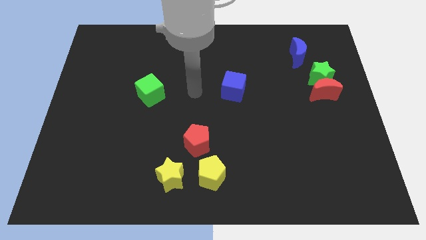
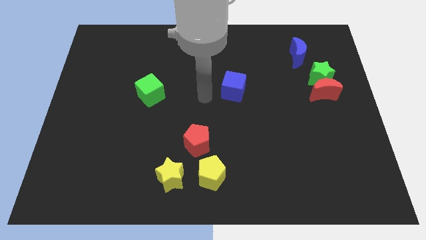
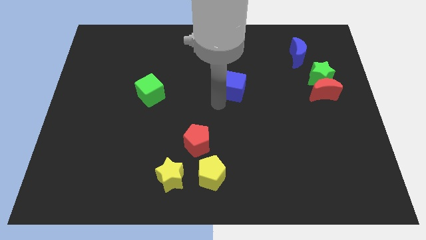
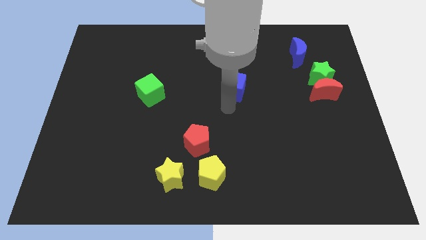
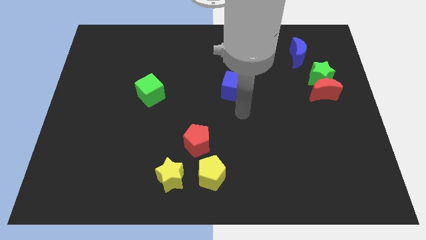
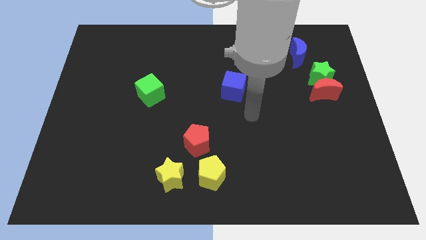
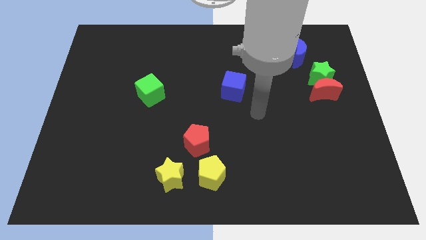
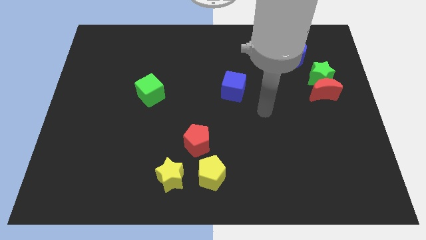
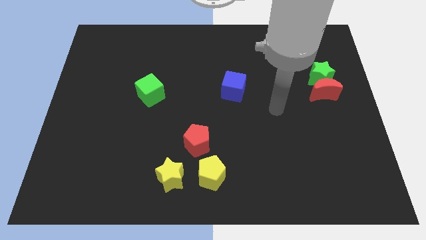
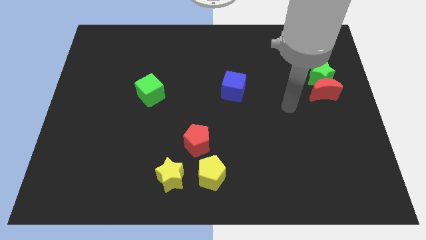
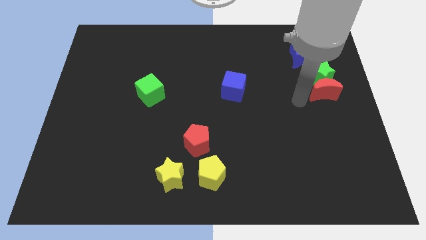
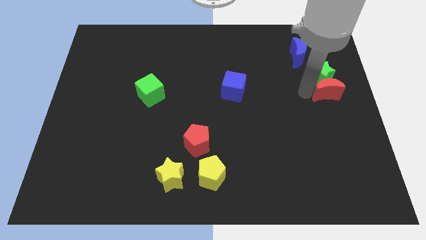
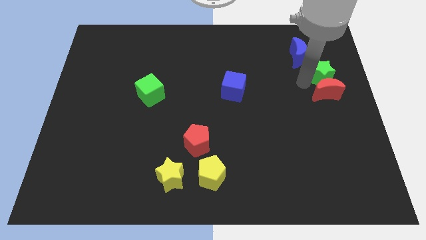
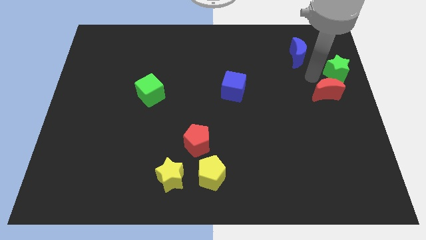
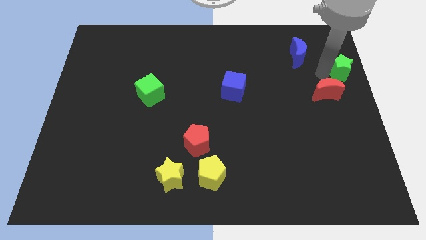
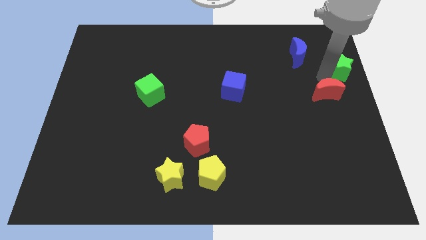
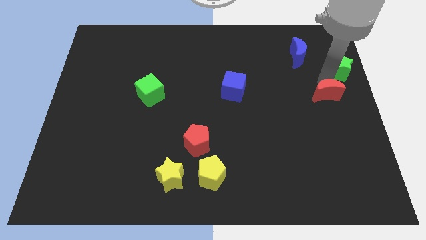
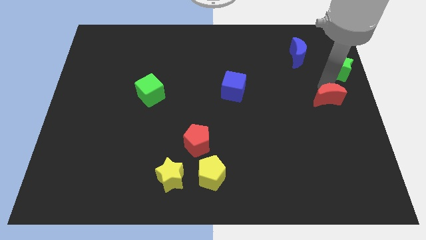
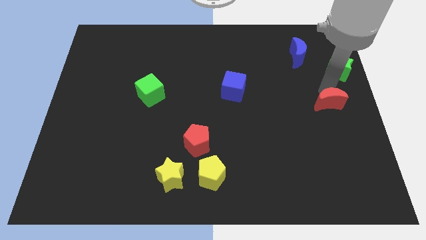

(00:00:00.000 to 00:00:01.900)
move the red moon away from the green star

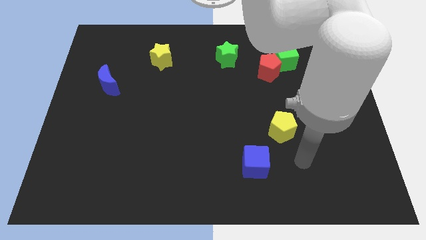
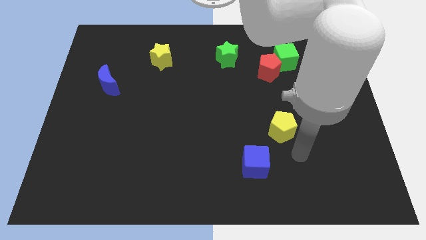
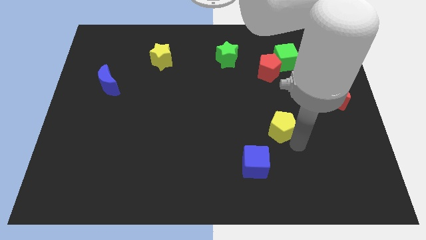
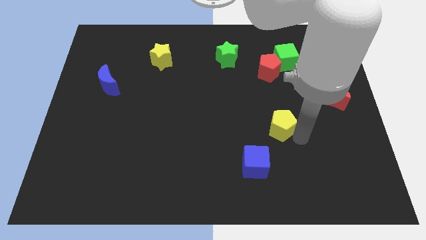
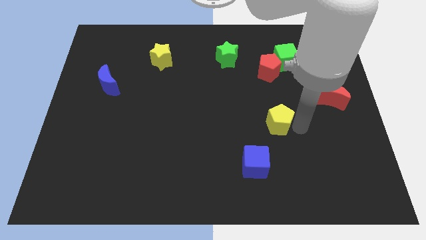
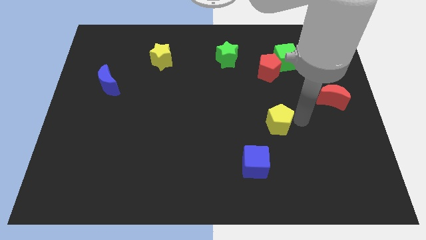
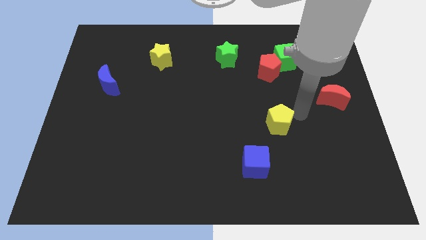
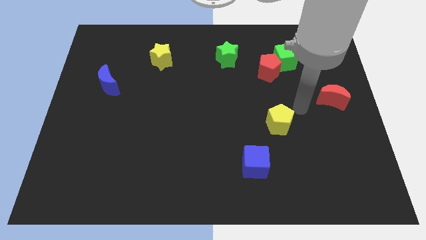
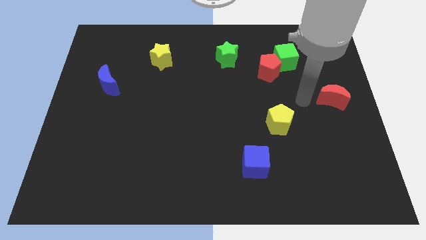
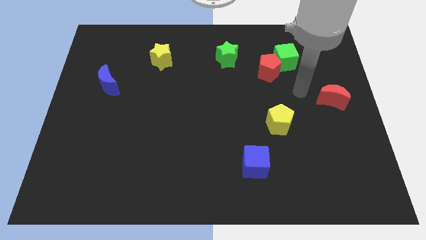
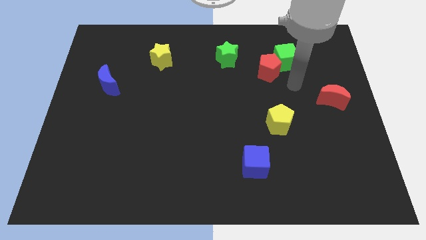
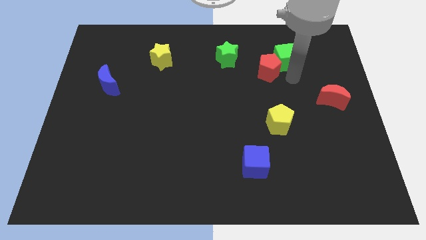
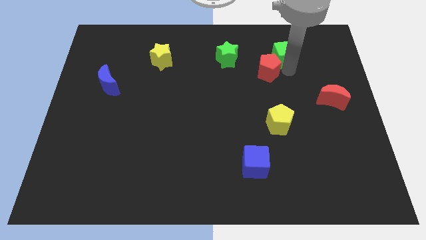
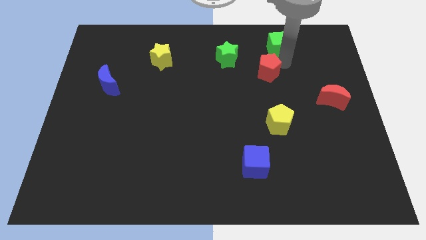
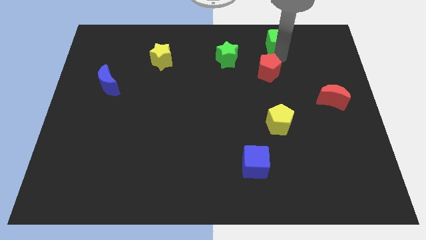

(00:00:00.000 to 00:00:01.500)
pull the red pentagon apart from the green cube

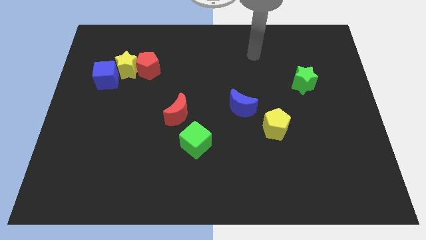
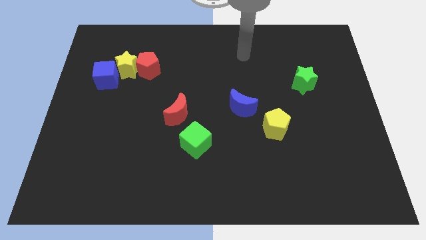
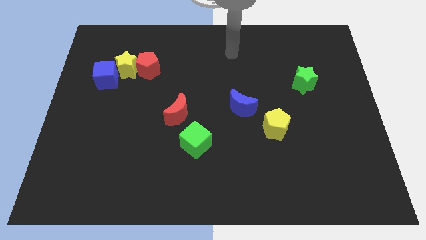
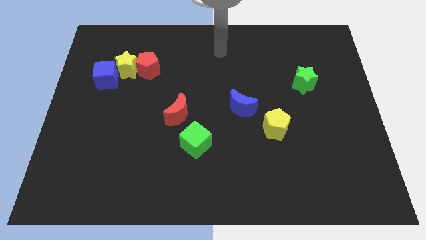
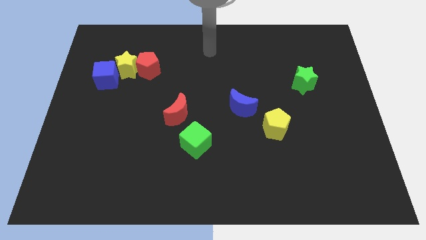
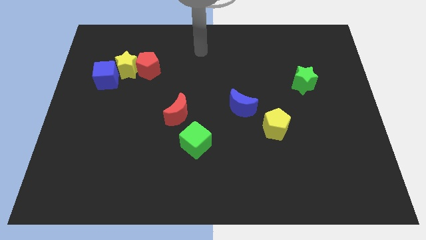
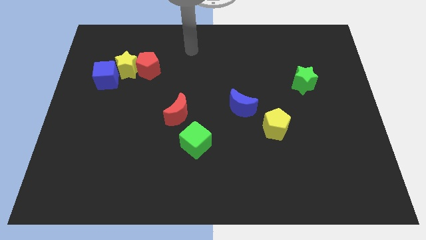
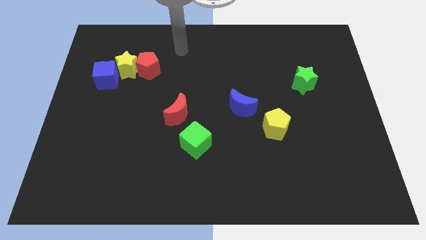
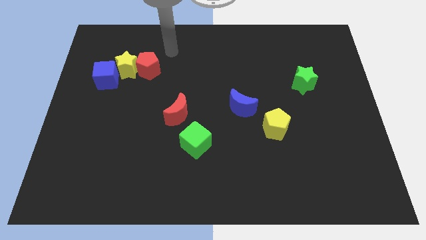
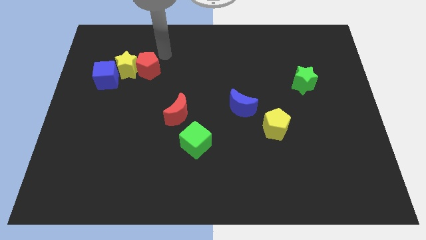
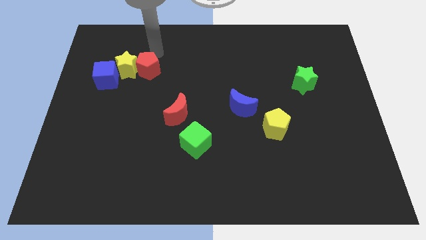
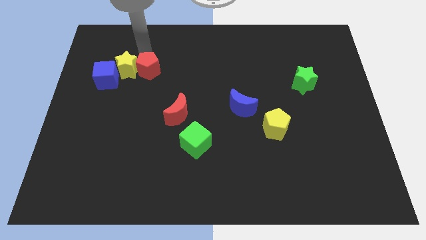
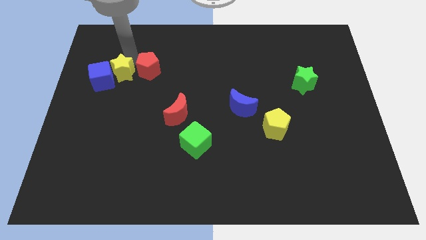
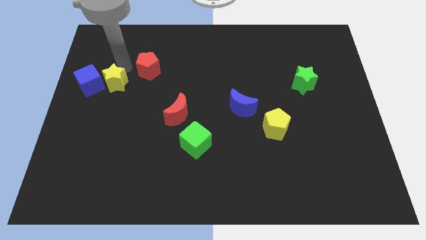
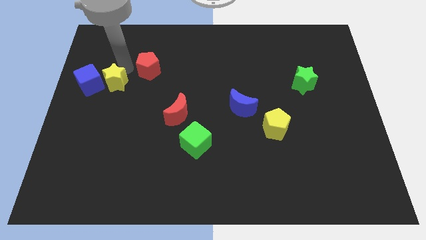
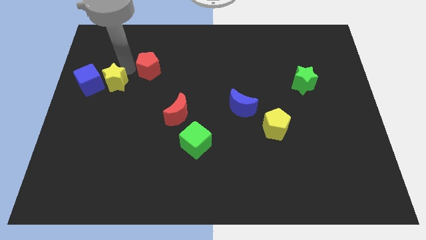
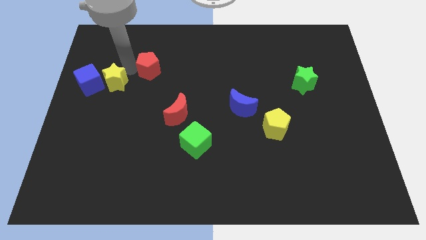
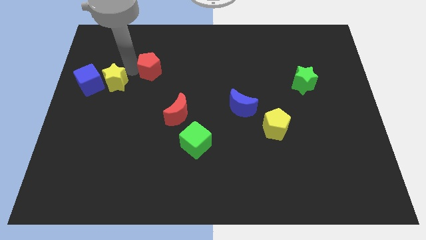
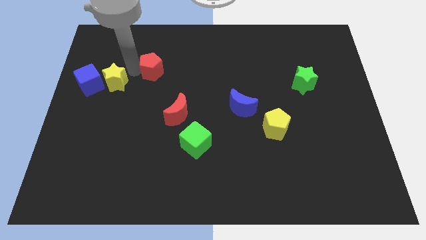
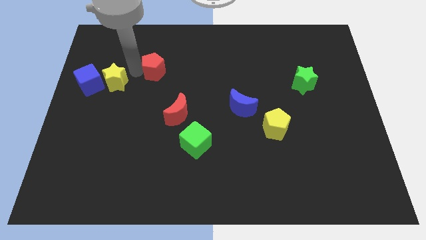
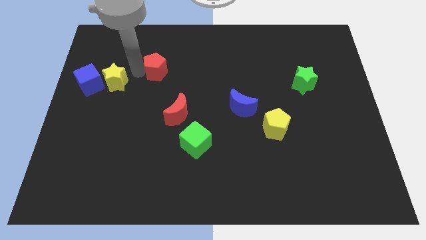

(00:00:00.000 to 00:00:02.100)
move the red pentagon away from the yellow star

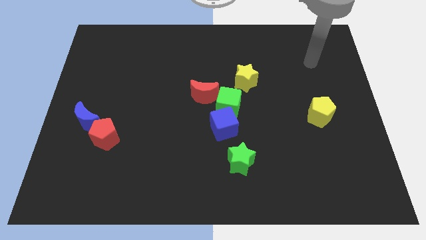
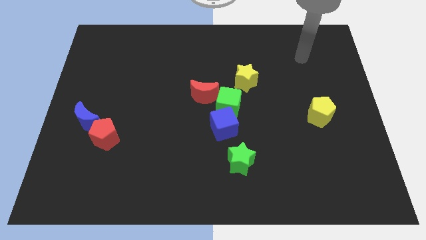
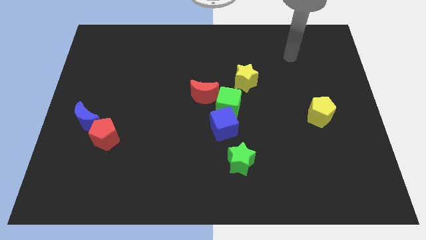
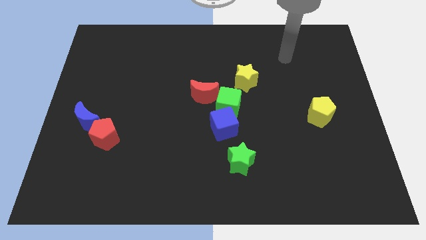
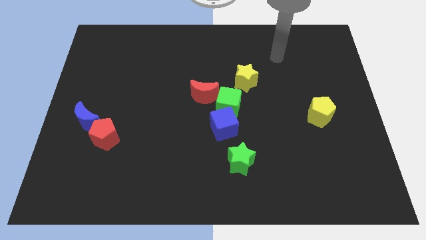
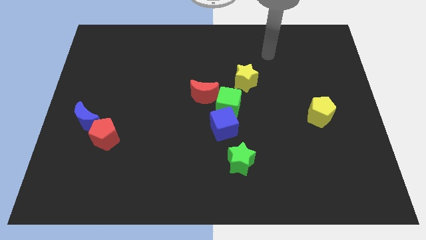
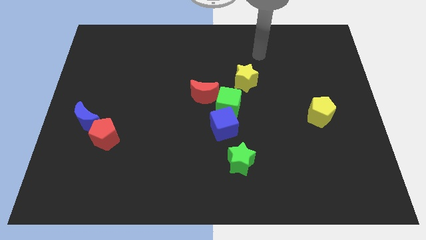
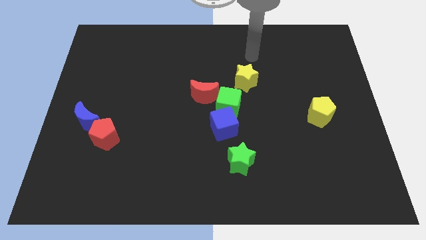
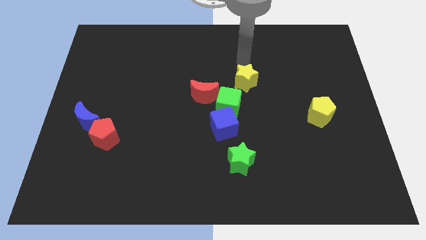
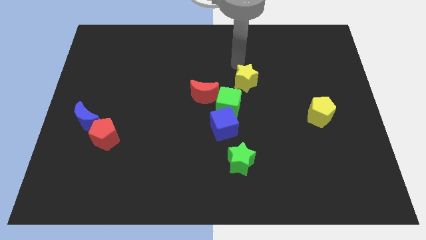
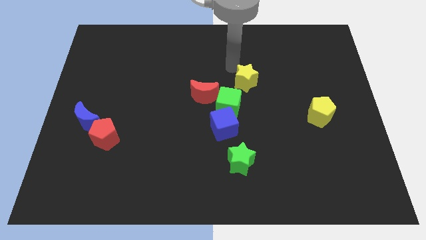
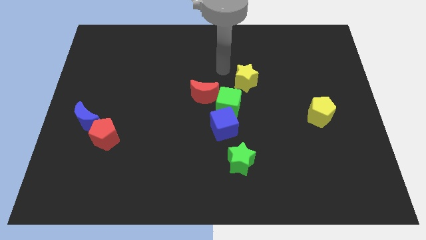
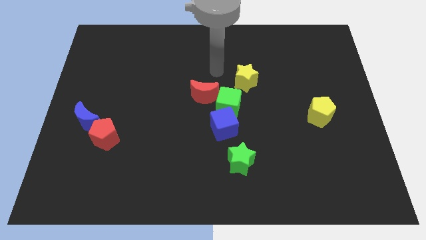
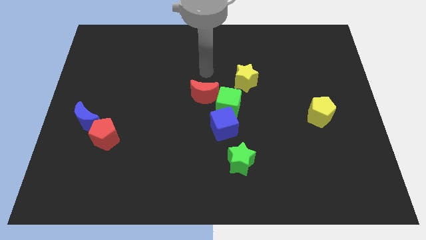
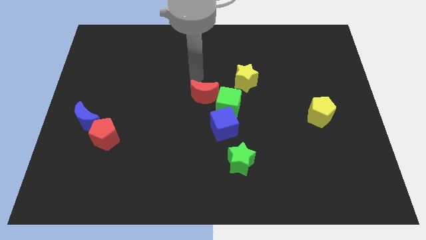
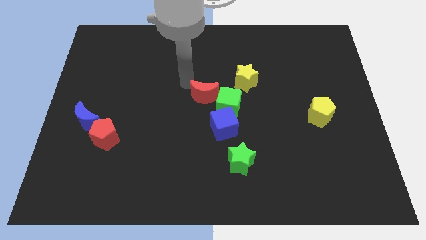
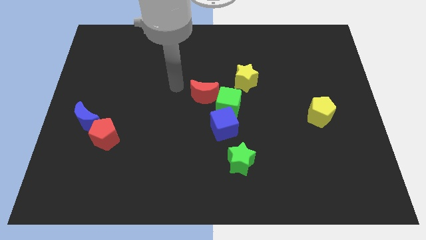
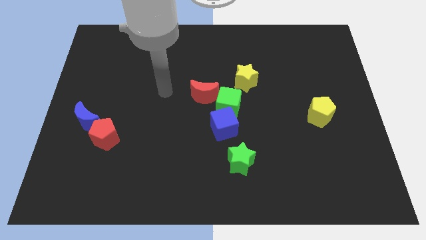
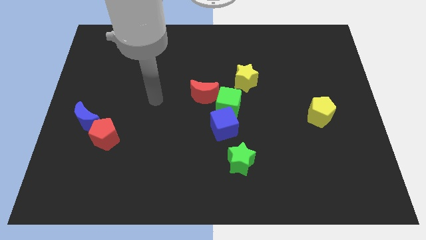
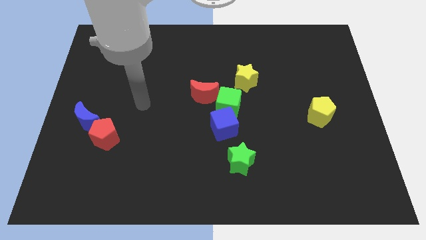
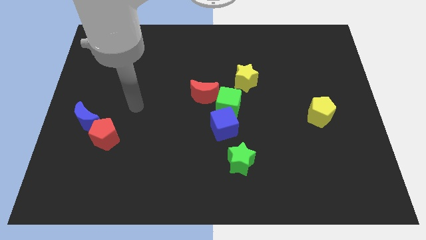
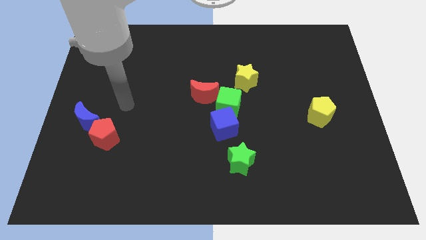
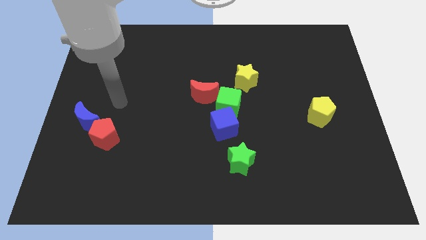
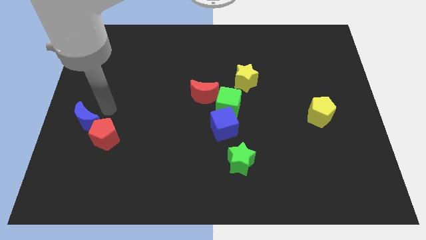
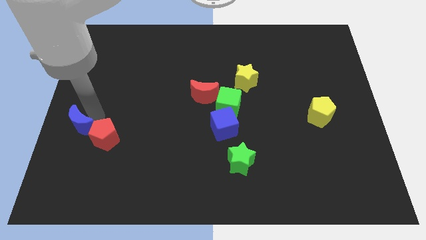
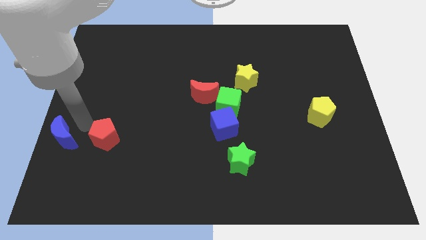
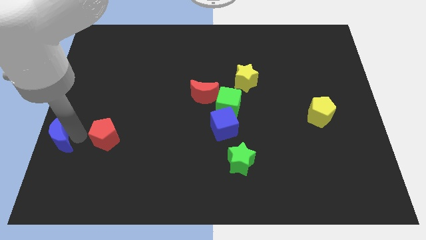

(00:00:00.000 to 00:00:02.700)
pull the red pentagon apart from the blue moon

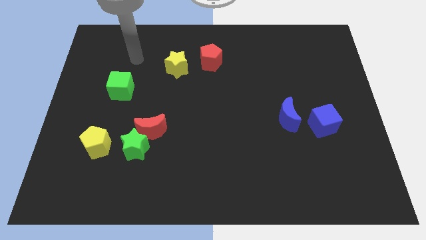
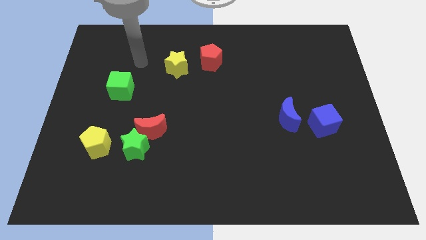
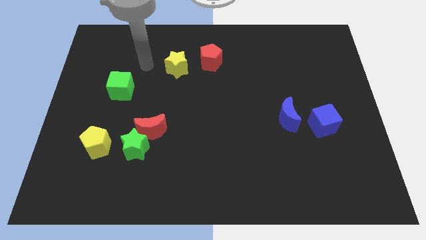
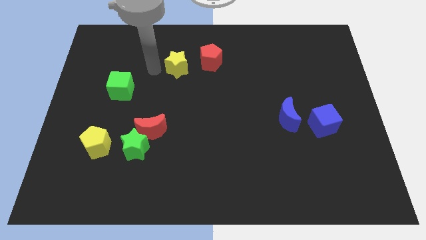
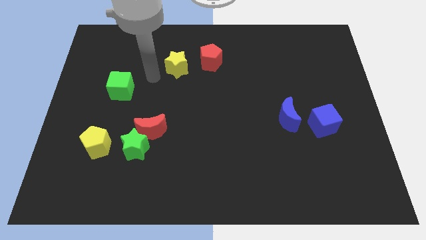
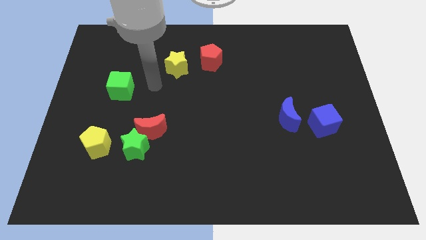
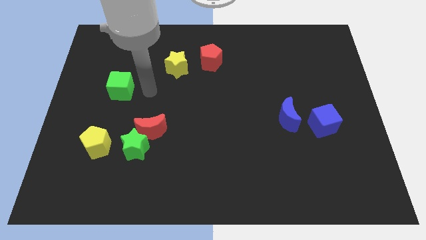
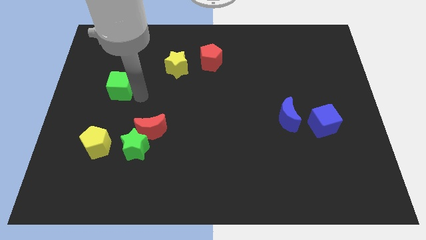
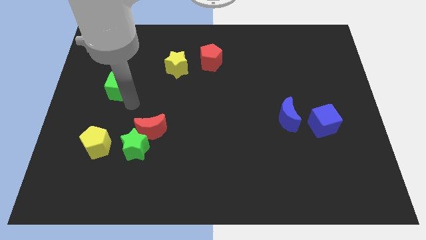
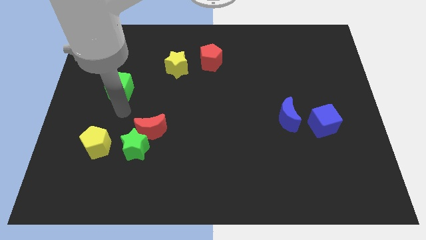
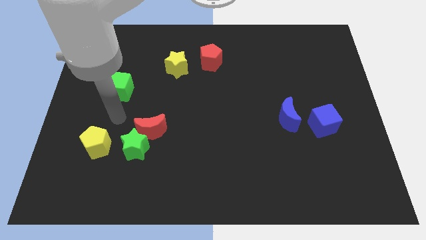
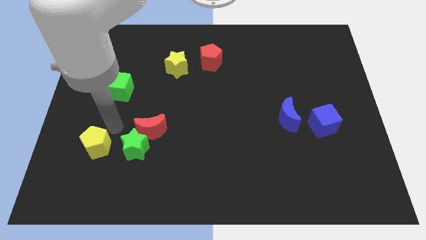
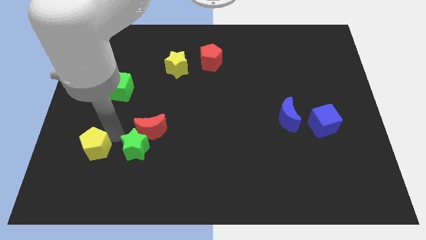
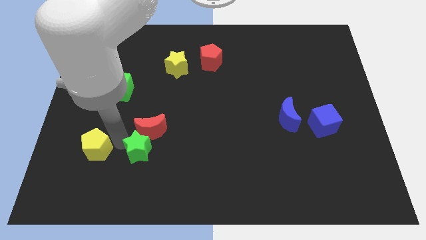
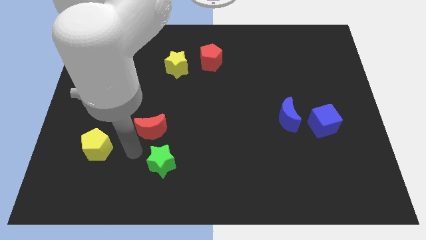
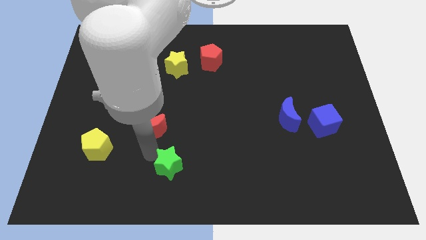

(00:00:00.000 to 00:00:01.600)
separate the red moon from the green star
